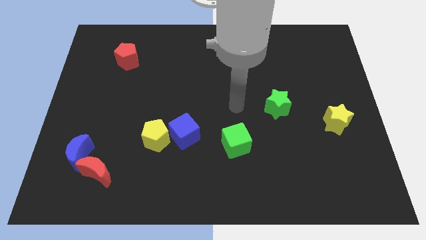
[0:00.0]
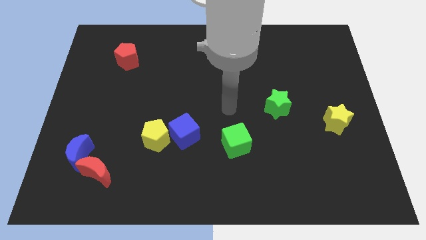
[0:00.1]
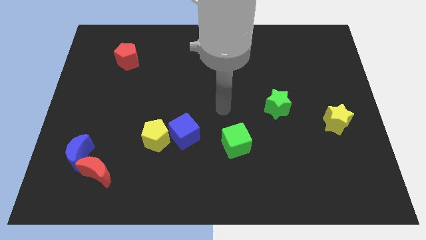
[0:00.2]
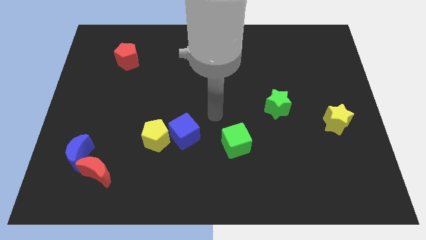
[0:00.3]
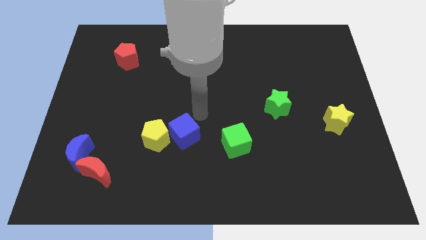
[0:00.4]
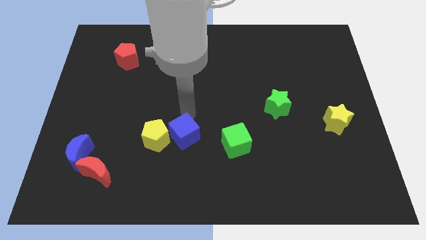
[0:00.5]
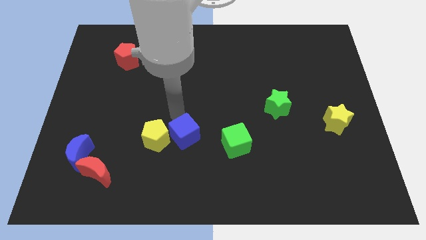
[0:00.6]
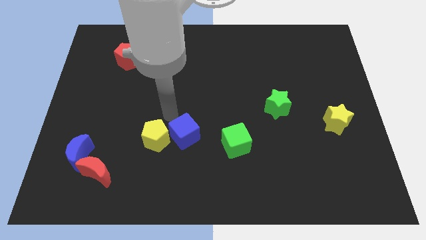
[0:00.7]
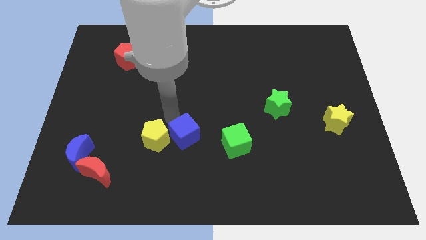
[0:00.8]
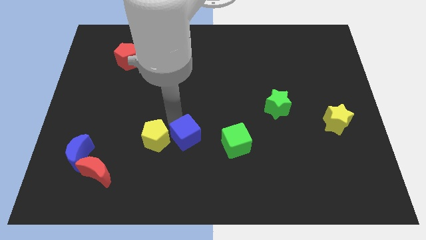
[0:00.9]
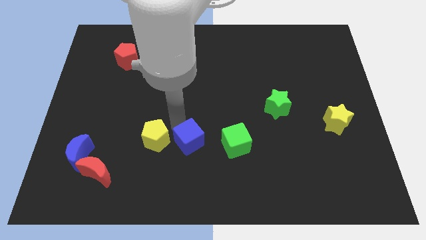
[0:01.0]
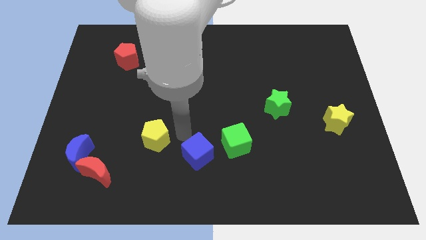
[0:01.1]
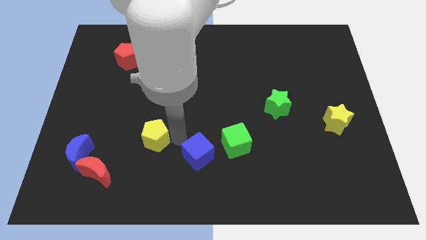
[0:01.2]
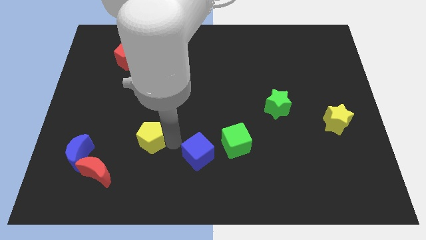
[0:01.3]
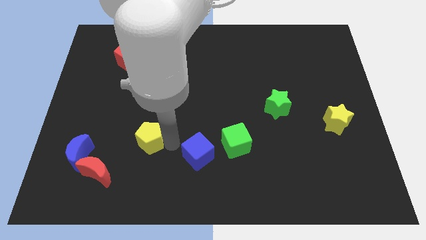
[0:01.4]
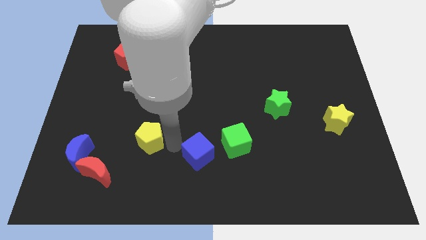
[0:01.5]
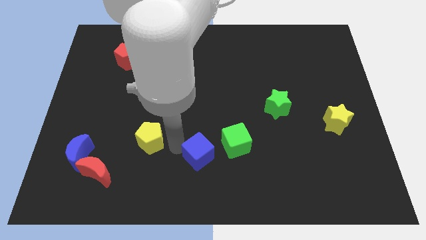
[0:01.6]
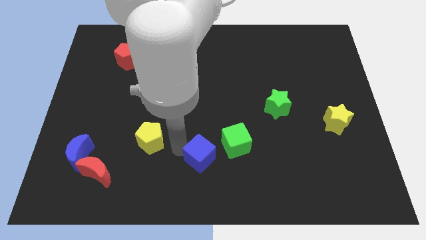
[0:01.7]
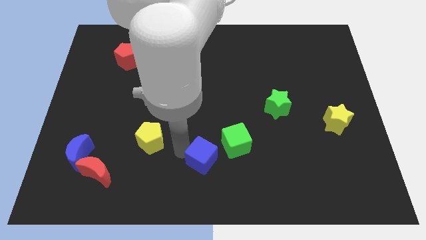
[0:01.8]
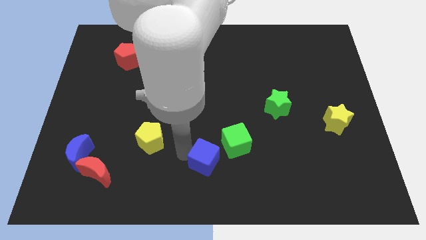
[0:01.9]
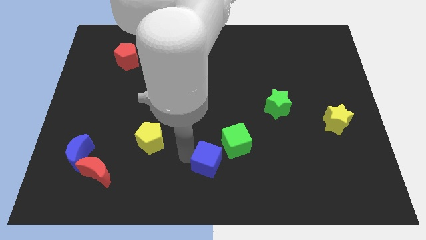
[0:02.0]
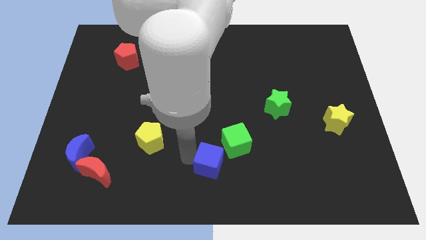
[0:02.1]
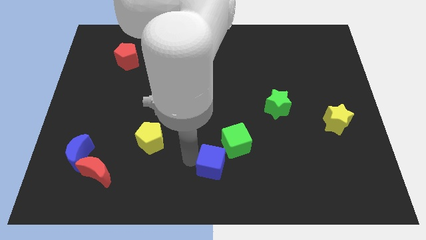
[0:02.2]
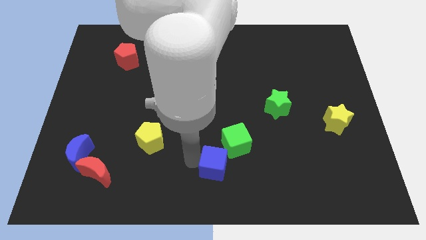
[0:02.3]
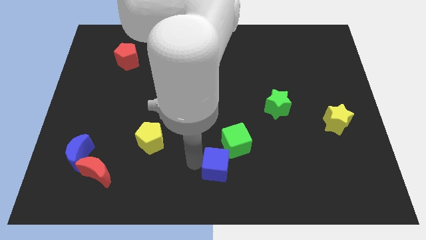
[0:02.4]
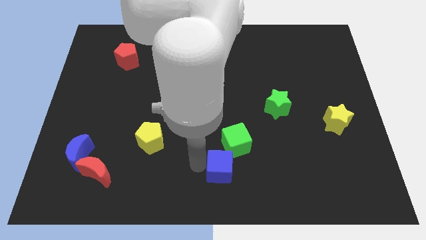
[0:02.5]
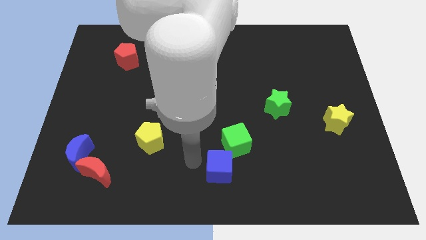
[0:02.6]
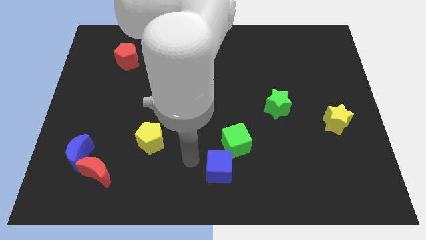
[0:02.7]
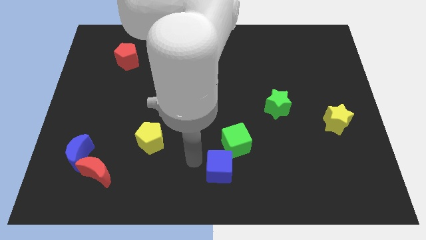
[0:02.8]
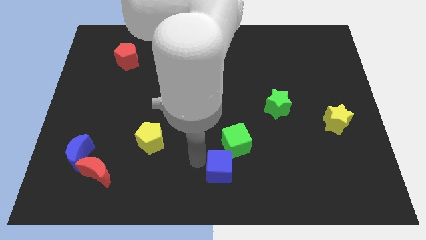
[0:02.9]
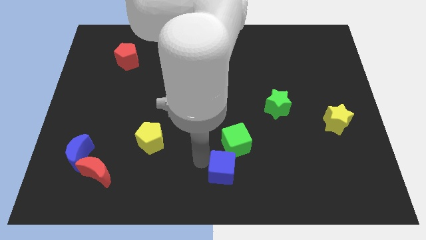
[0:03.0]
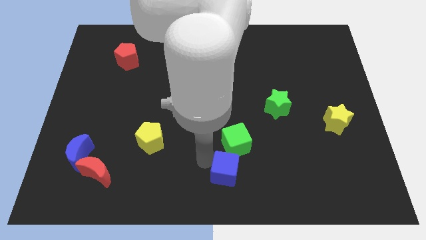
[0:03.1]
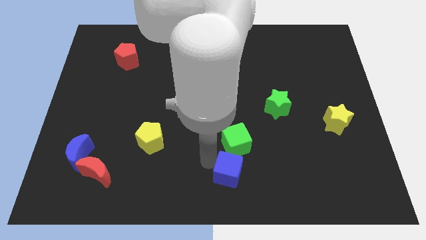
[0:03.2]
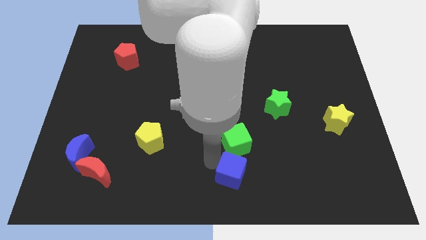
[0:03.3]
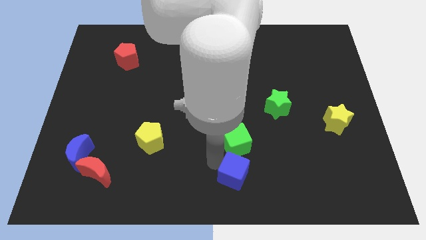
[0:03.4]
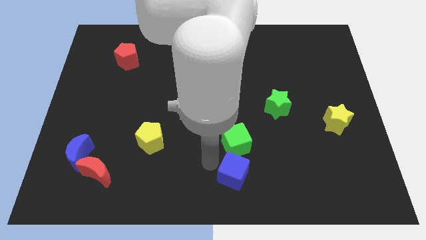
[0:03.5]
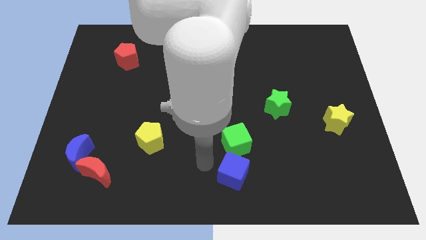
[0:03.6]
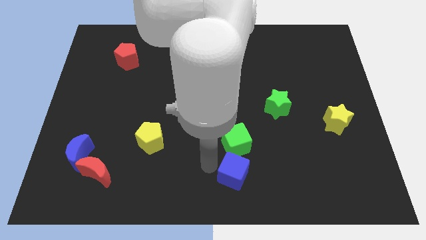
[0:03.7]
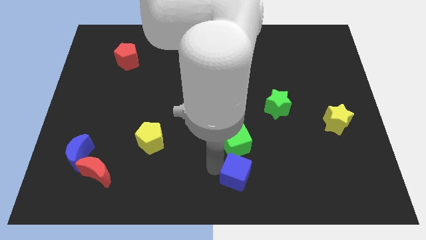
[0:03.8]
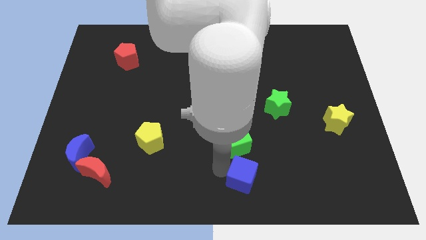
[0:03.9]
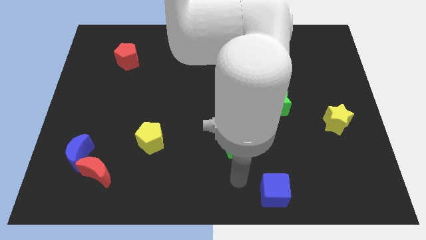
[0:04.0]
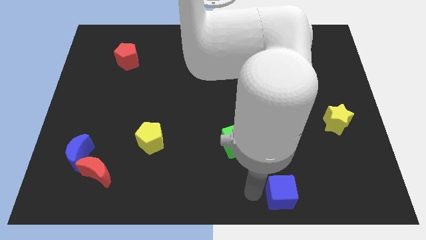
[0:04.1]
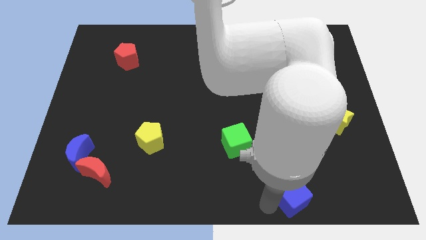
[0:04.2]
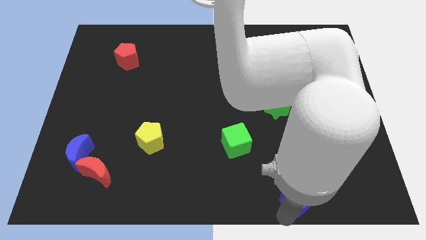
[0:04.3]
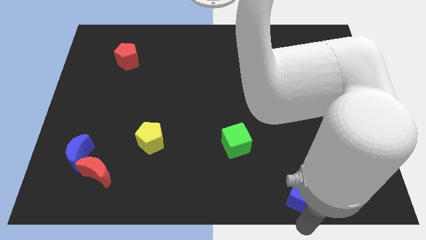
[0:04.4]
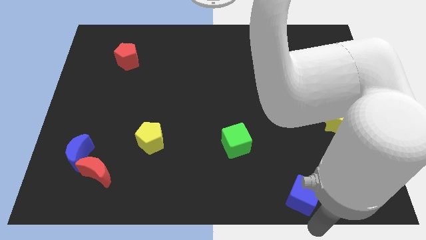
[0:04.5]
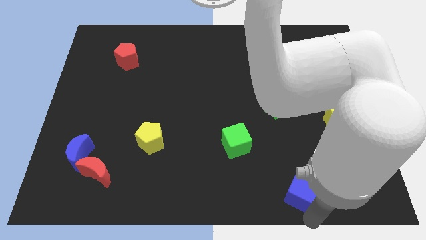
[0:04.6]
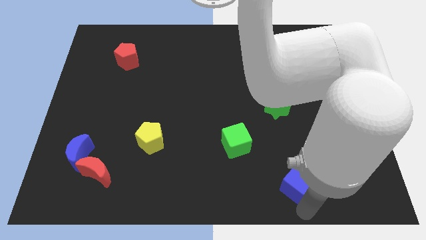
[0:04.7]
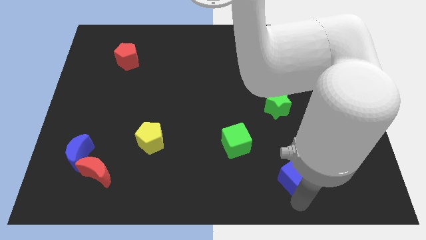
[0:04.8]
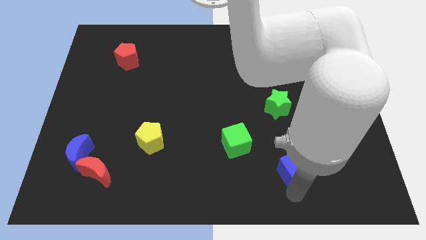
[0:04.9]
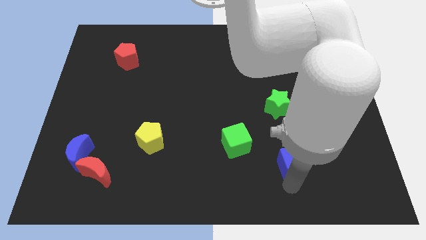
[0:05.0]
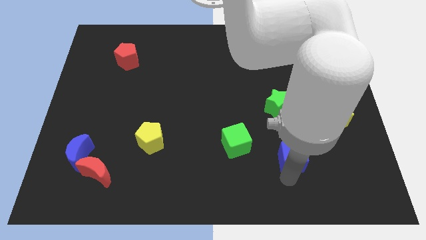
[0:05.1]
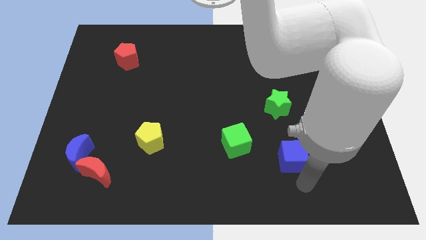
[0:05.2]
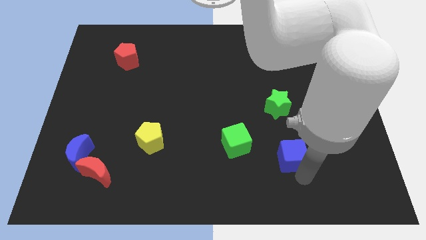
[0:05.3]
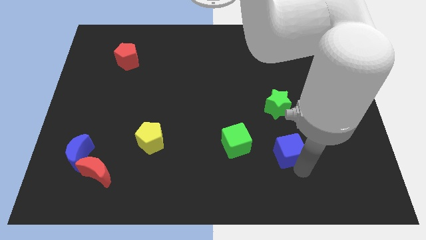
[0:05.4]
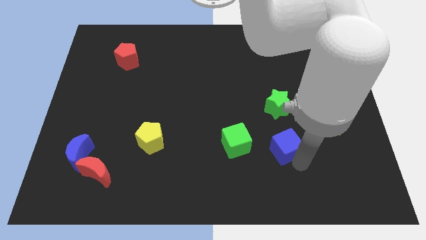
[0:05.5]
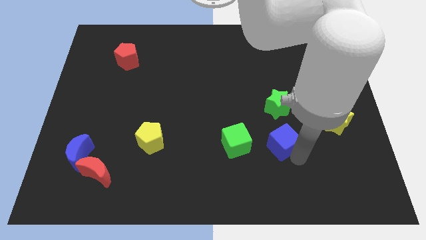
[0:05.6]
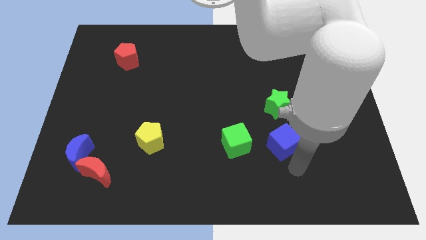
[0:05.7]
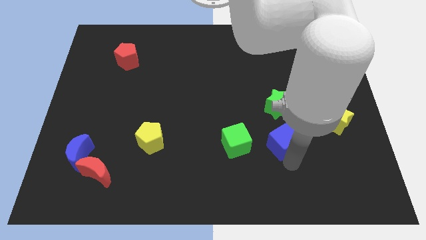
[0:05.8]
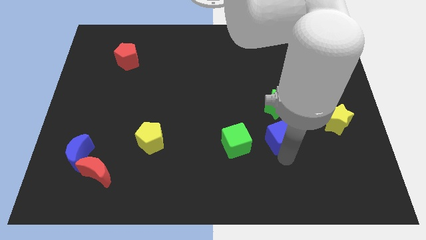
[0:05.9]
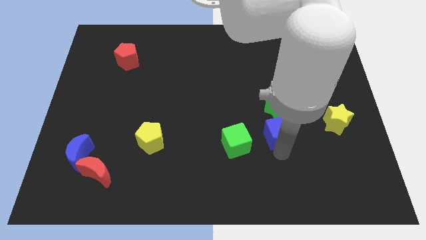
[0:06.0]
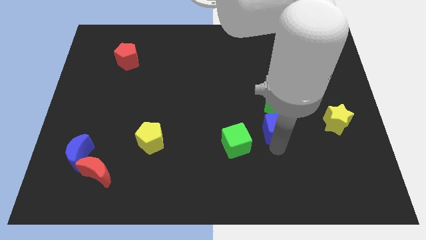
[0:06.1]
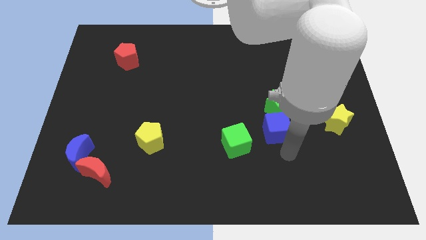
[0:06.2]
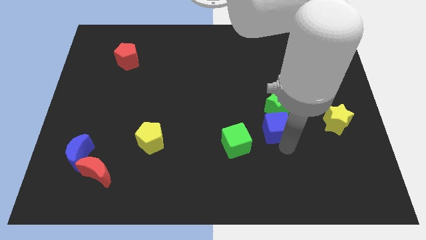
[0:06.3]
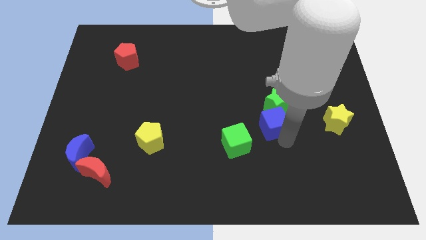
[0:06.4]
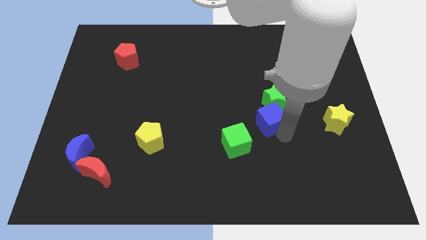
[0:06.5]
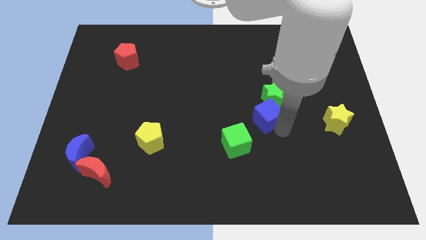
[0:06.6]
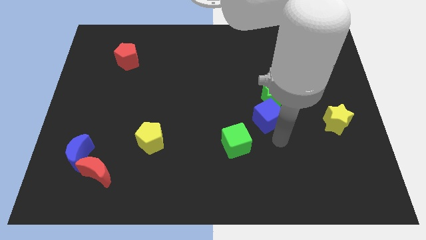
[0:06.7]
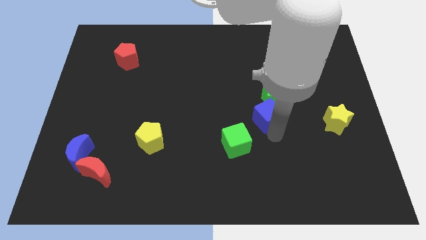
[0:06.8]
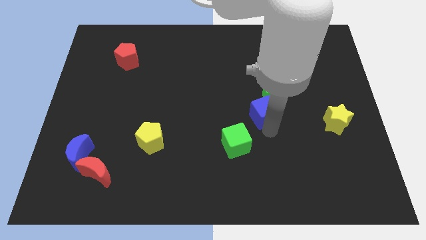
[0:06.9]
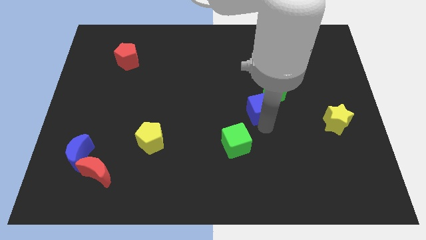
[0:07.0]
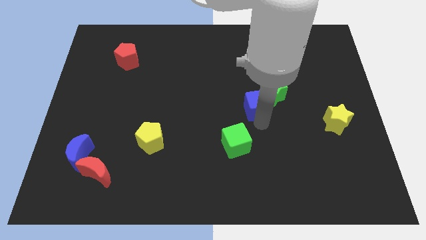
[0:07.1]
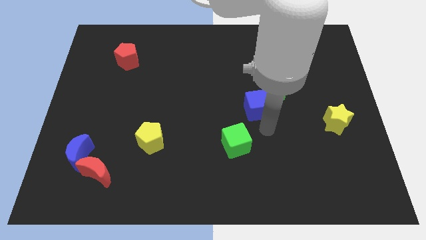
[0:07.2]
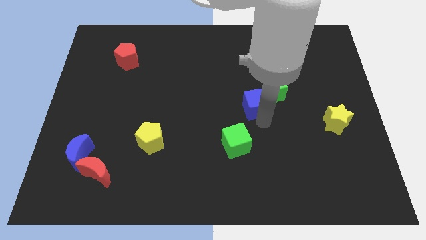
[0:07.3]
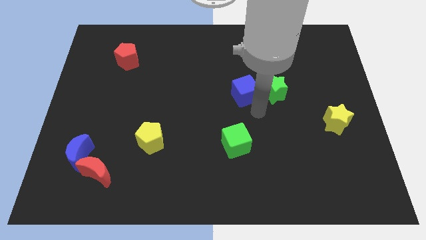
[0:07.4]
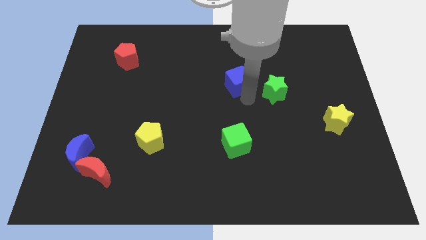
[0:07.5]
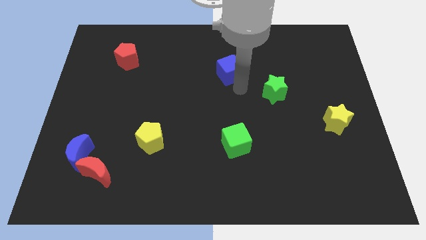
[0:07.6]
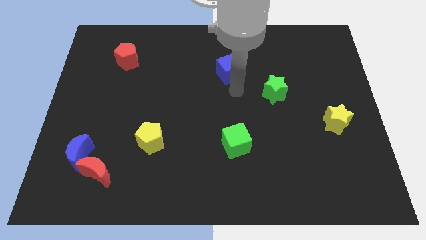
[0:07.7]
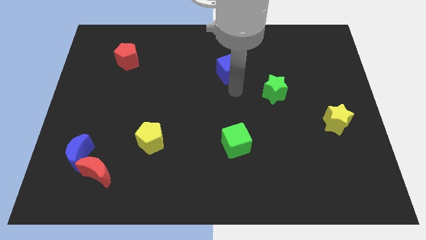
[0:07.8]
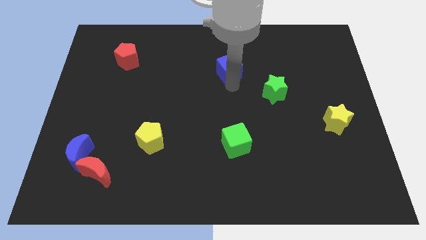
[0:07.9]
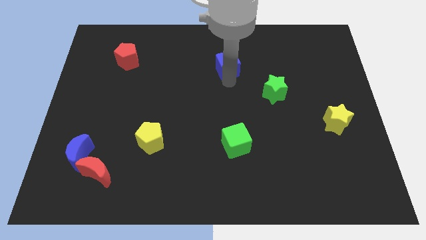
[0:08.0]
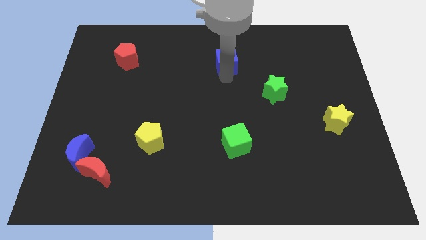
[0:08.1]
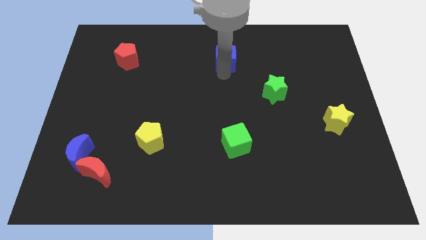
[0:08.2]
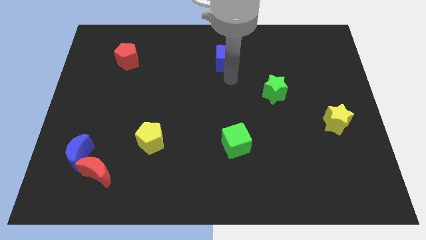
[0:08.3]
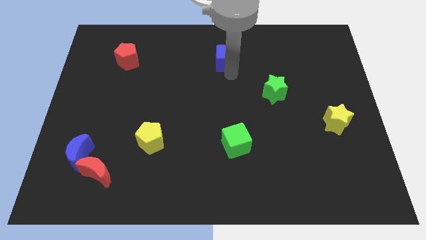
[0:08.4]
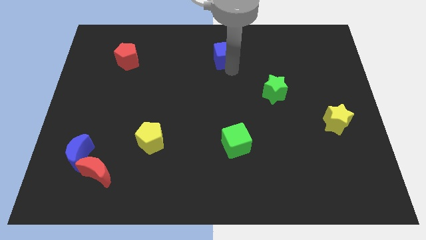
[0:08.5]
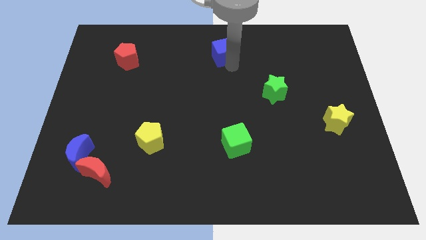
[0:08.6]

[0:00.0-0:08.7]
push the blue cube to the top
